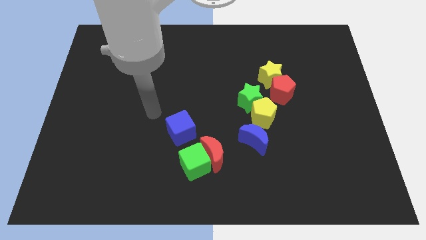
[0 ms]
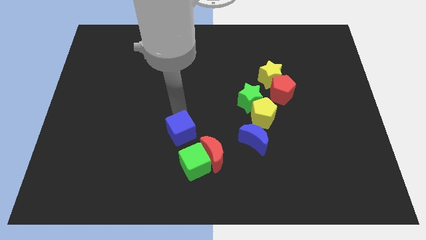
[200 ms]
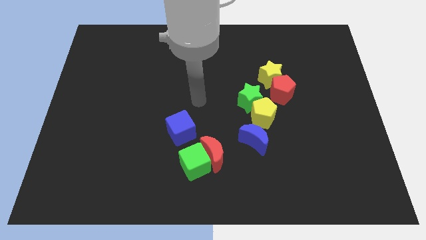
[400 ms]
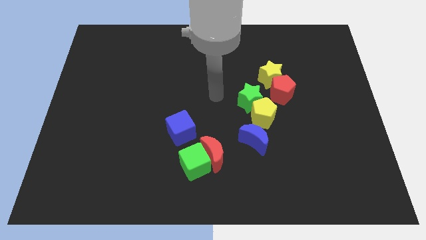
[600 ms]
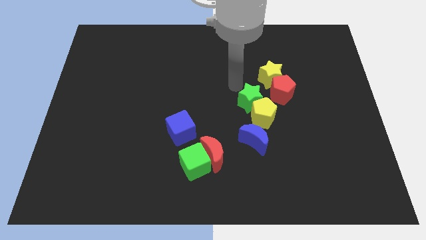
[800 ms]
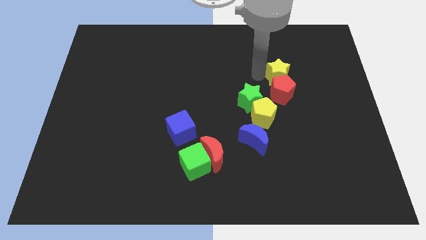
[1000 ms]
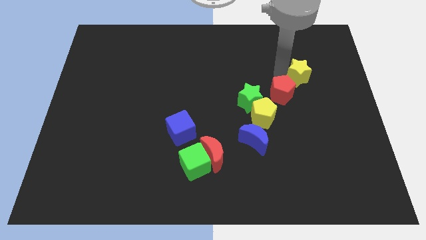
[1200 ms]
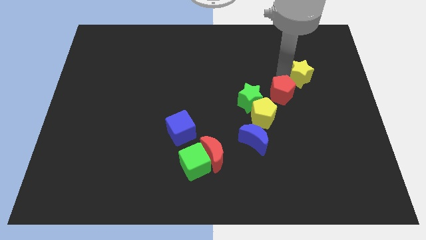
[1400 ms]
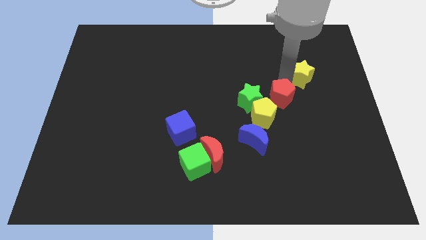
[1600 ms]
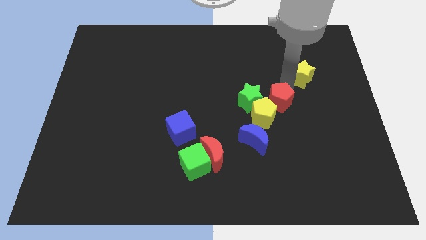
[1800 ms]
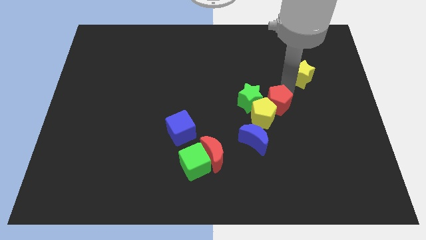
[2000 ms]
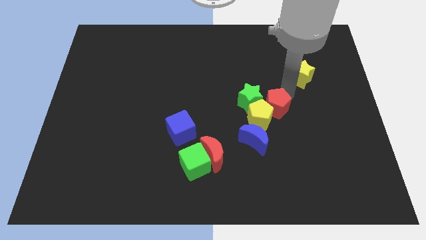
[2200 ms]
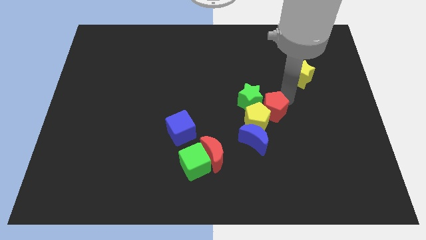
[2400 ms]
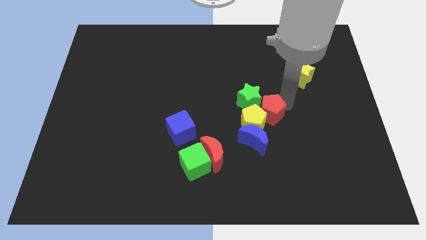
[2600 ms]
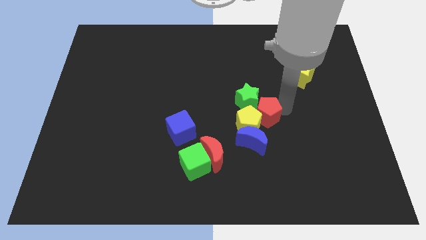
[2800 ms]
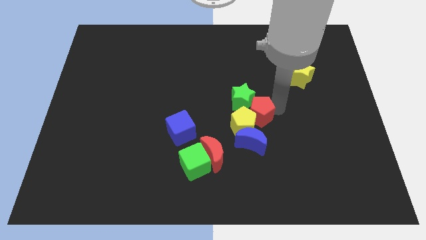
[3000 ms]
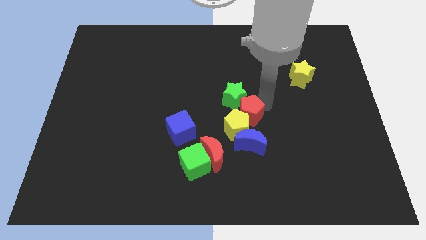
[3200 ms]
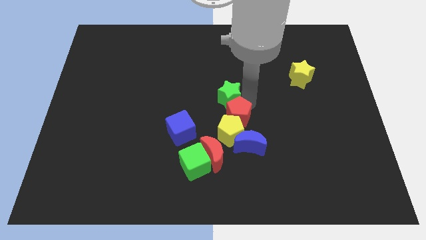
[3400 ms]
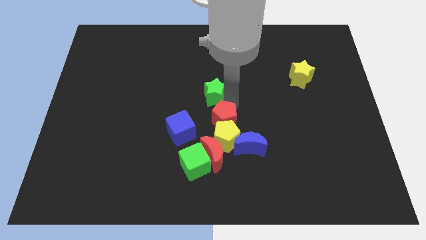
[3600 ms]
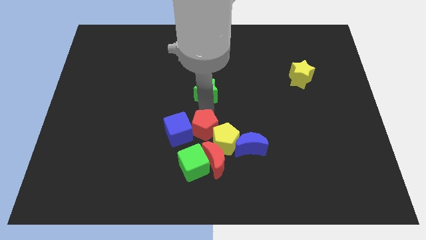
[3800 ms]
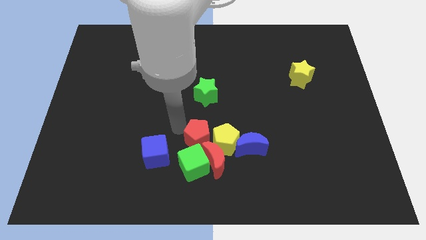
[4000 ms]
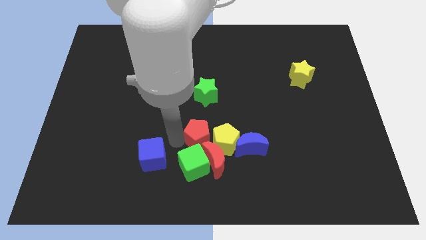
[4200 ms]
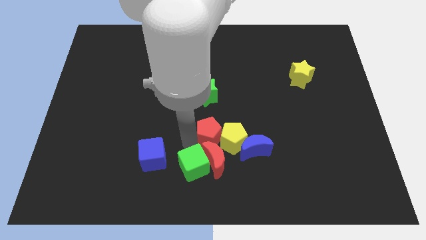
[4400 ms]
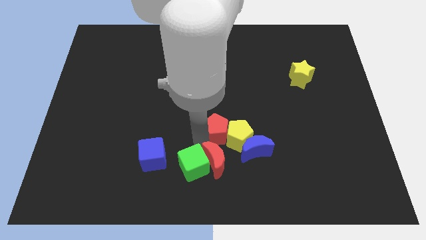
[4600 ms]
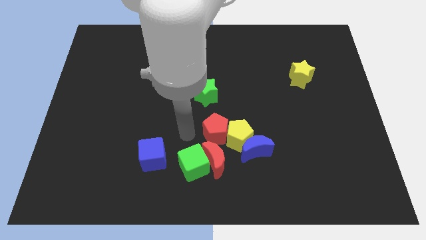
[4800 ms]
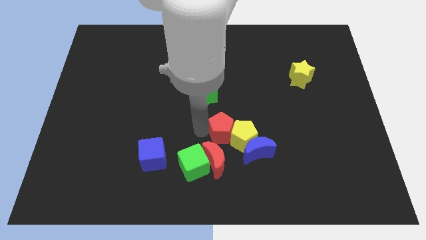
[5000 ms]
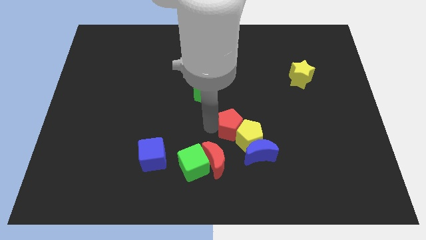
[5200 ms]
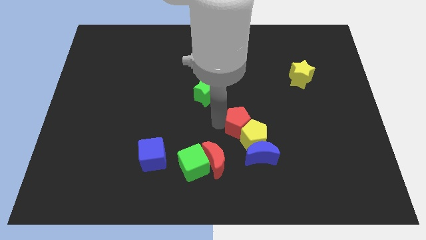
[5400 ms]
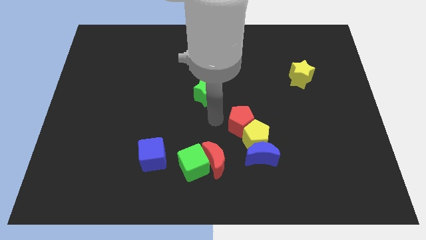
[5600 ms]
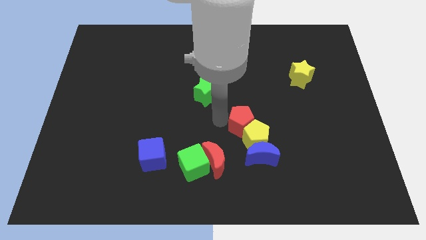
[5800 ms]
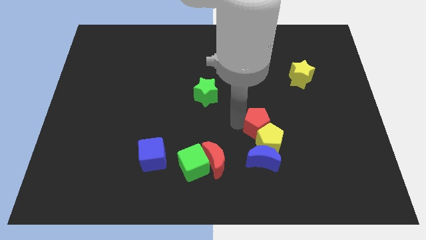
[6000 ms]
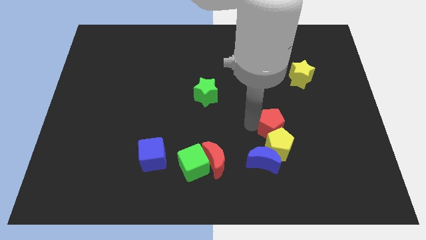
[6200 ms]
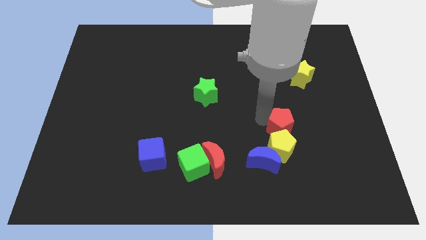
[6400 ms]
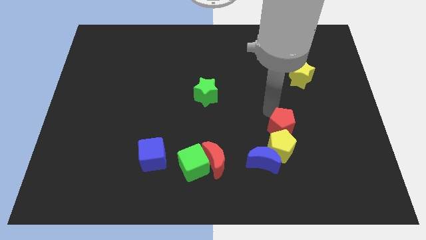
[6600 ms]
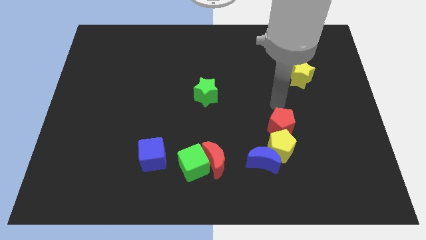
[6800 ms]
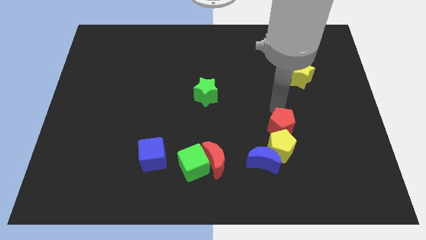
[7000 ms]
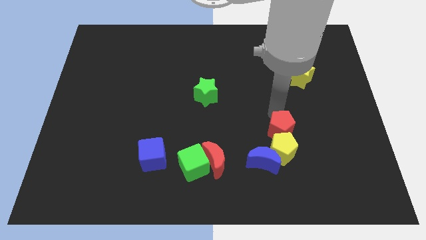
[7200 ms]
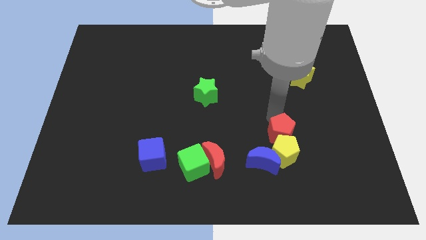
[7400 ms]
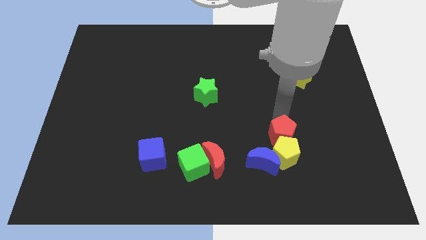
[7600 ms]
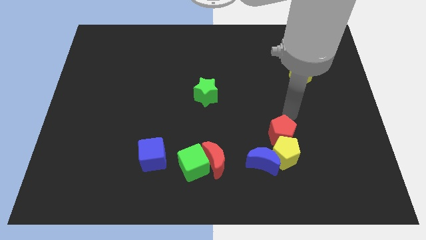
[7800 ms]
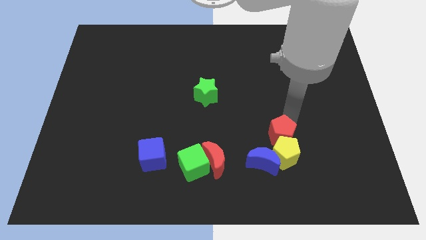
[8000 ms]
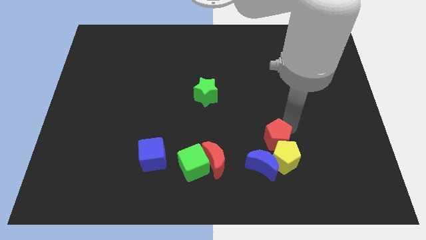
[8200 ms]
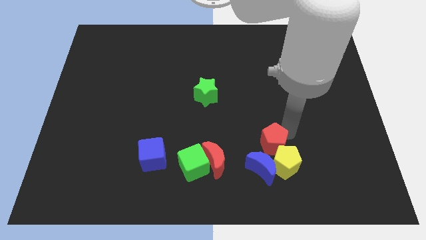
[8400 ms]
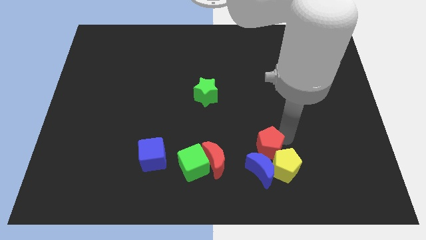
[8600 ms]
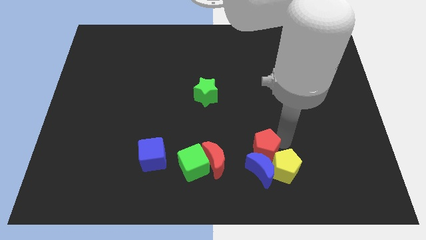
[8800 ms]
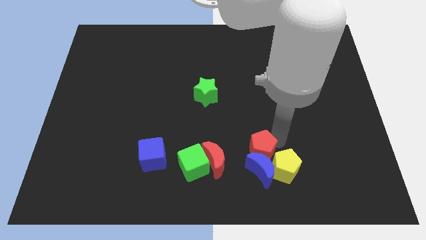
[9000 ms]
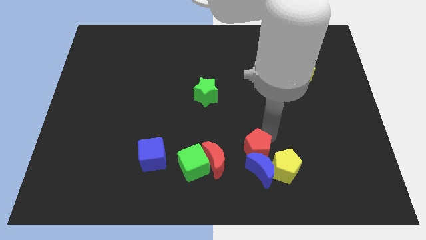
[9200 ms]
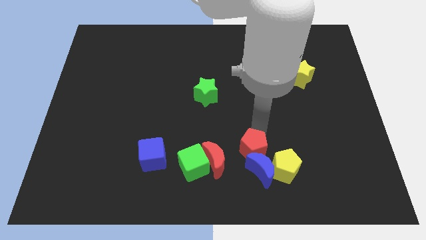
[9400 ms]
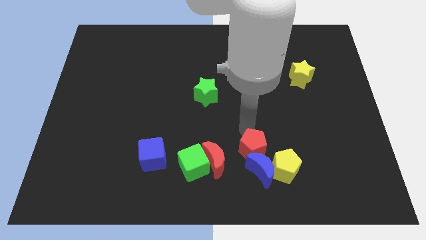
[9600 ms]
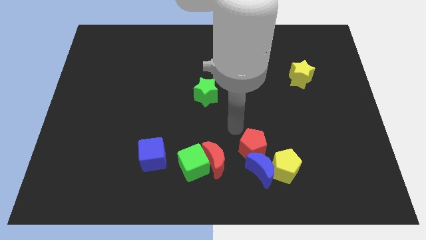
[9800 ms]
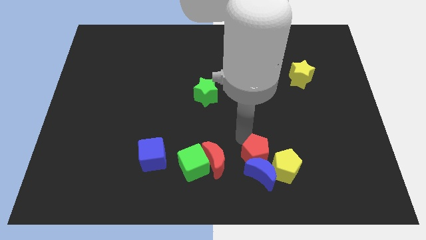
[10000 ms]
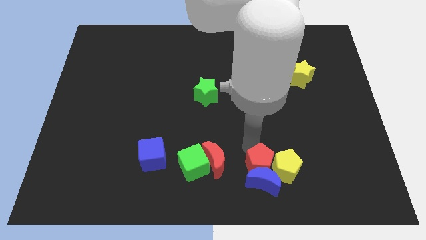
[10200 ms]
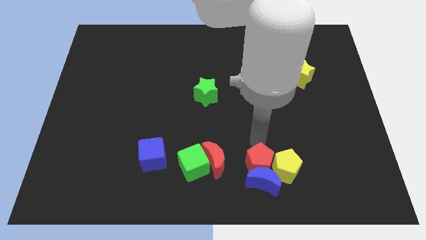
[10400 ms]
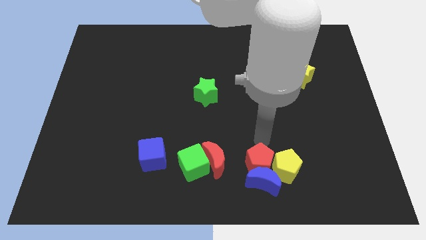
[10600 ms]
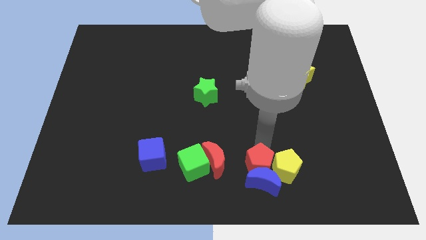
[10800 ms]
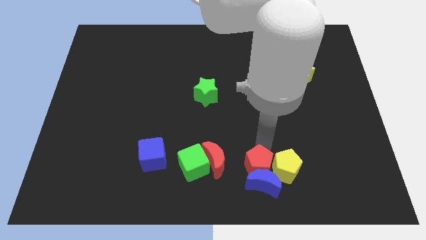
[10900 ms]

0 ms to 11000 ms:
push the red pentagon to the bottom side
